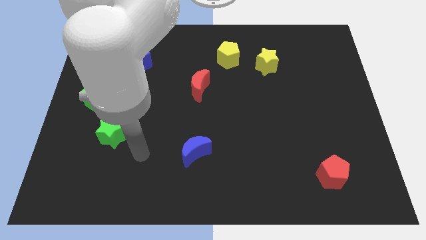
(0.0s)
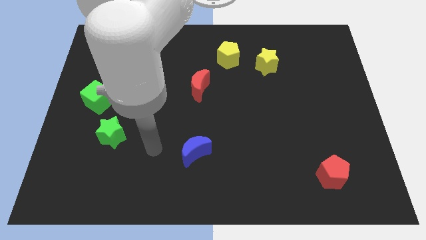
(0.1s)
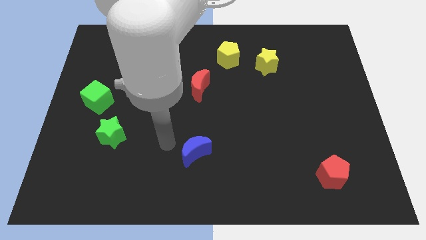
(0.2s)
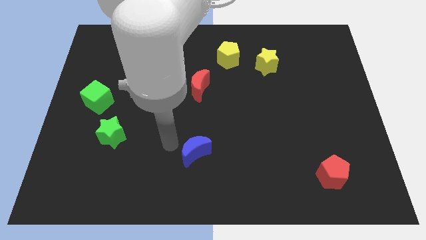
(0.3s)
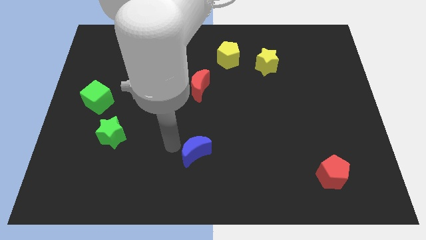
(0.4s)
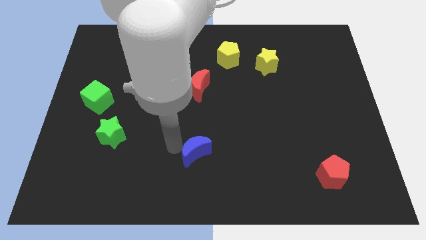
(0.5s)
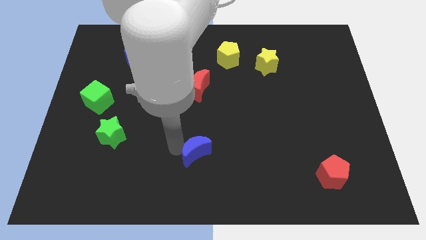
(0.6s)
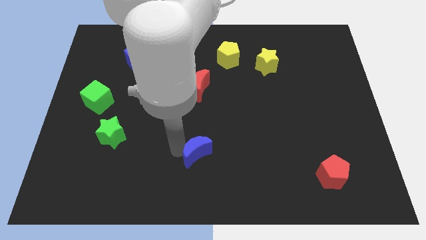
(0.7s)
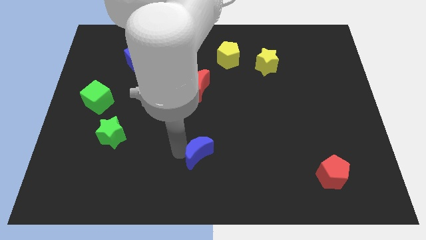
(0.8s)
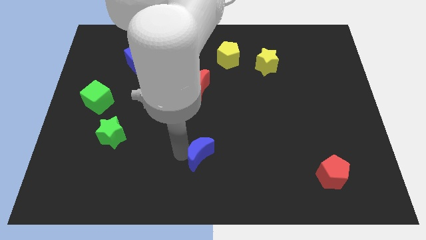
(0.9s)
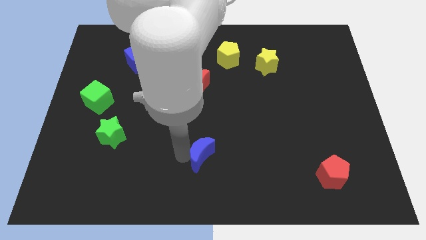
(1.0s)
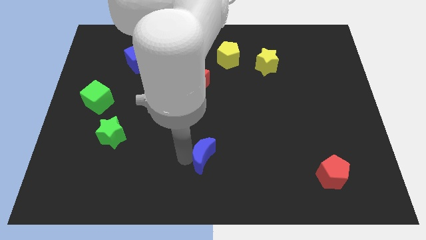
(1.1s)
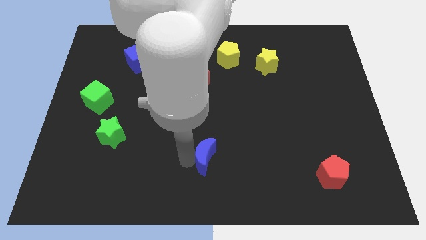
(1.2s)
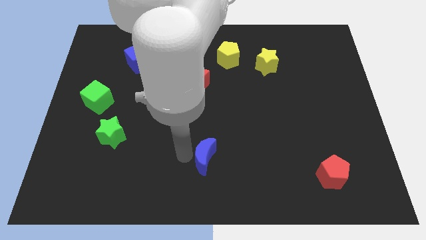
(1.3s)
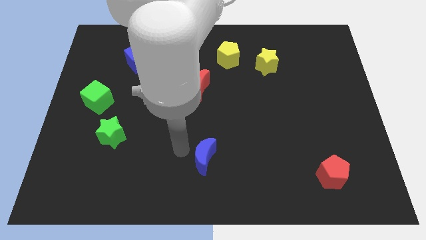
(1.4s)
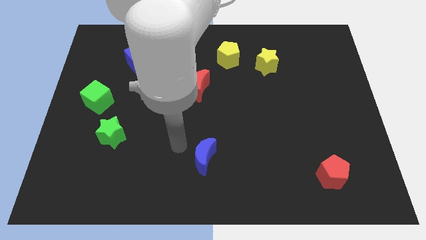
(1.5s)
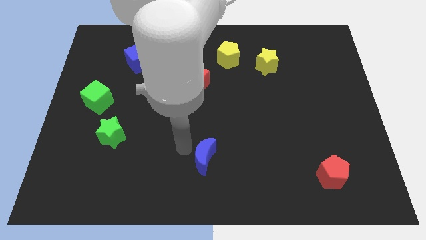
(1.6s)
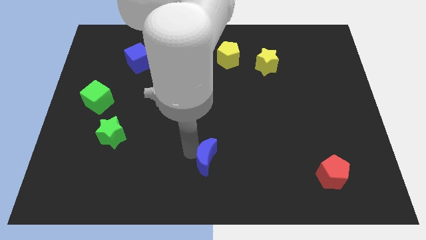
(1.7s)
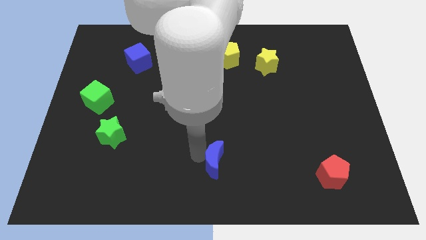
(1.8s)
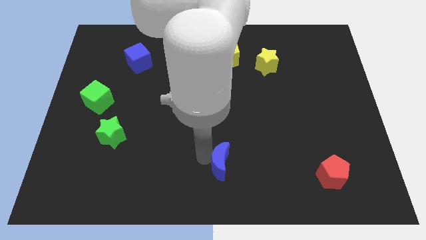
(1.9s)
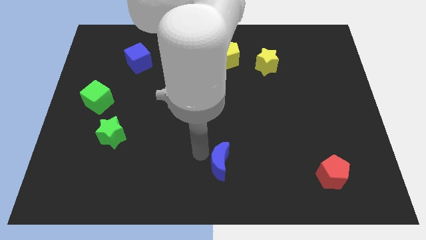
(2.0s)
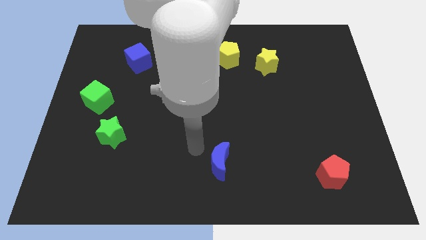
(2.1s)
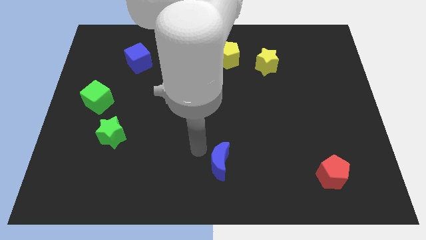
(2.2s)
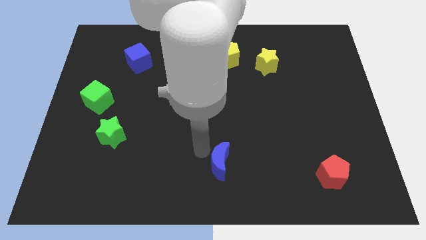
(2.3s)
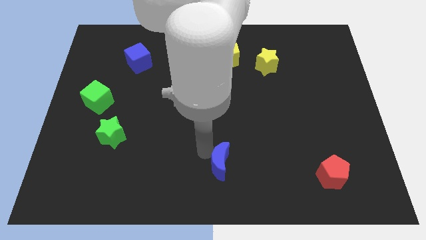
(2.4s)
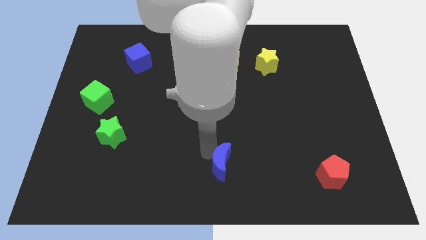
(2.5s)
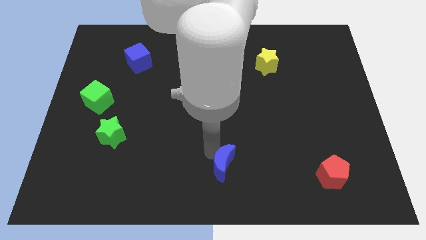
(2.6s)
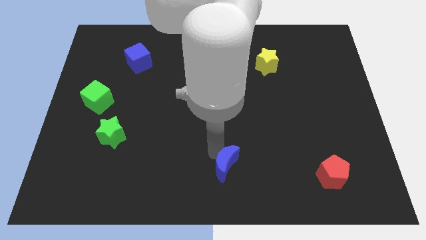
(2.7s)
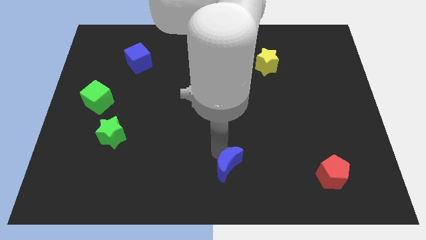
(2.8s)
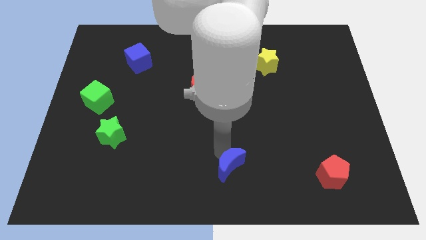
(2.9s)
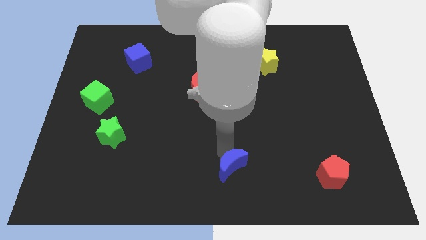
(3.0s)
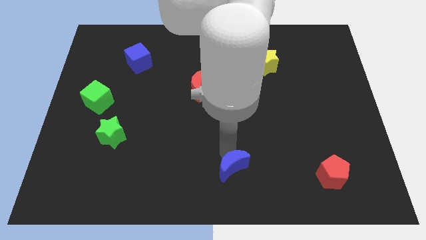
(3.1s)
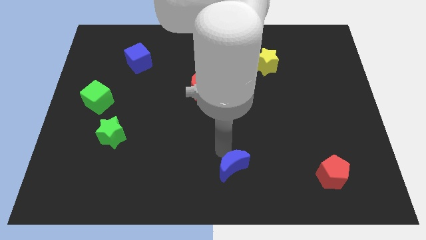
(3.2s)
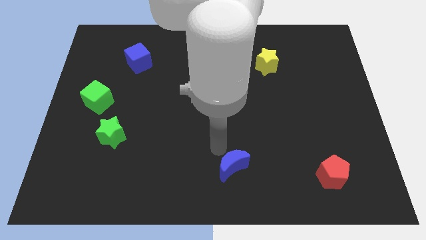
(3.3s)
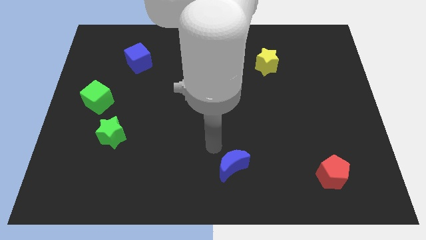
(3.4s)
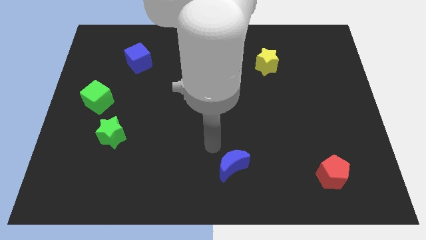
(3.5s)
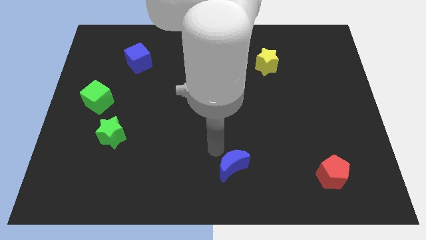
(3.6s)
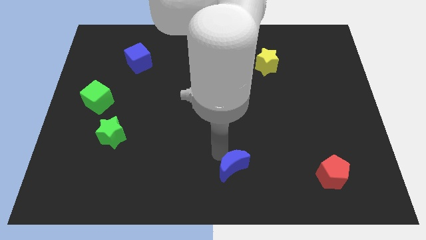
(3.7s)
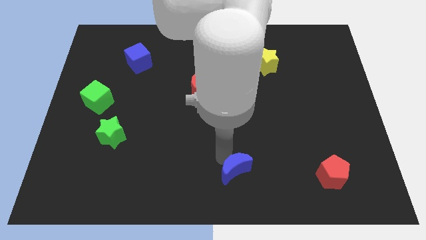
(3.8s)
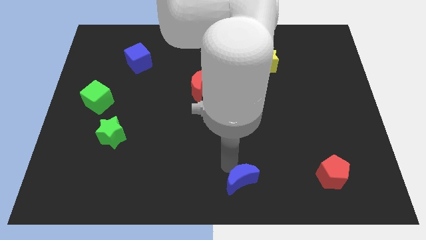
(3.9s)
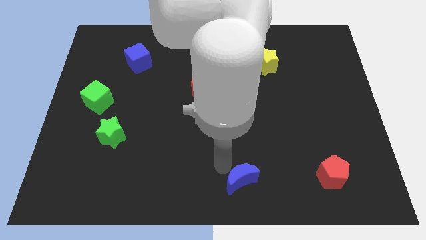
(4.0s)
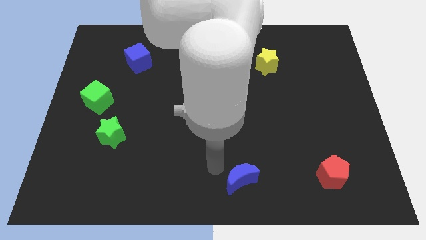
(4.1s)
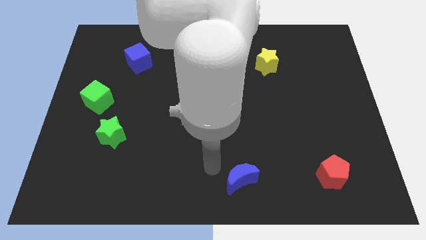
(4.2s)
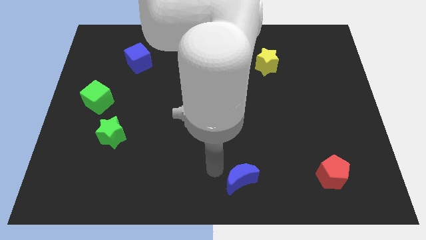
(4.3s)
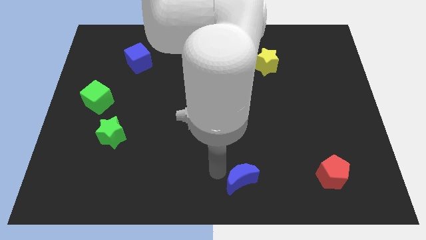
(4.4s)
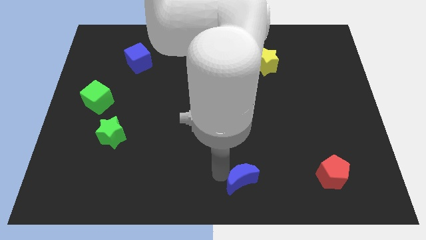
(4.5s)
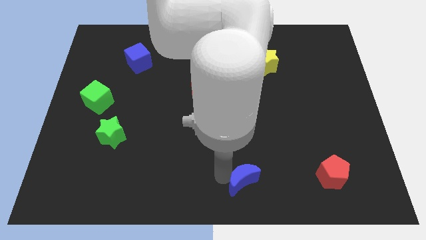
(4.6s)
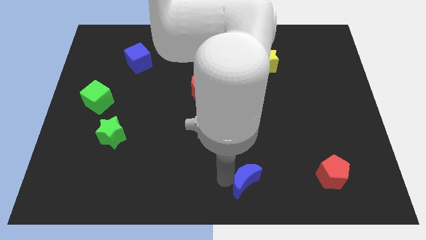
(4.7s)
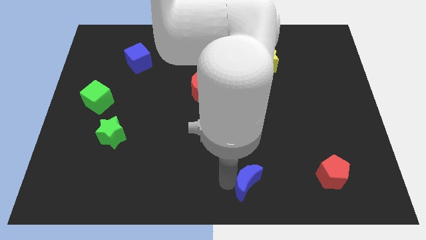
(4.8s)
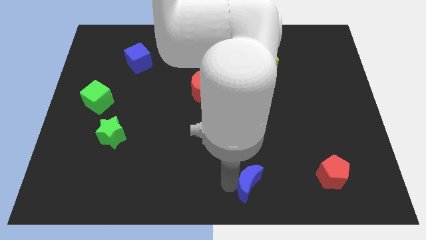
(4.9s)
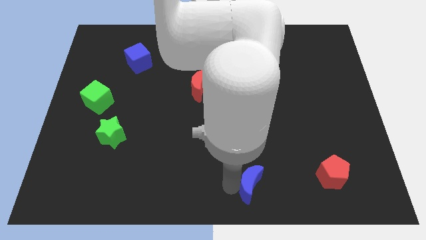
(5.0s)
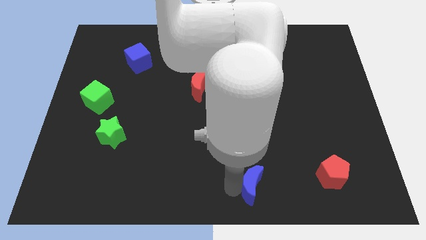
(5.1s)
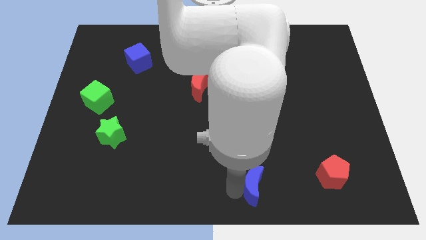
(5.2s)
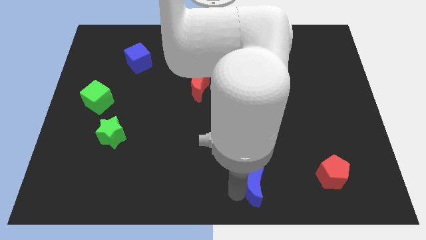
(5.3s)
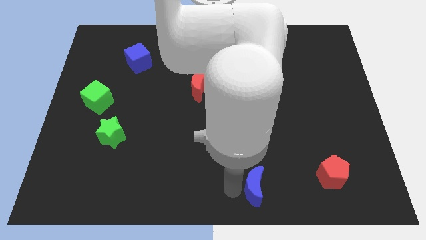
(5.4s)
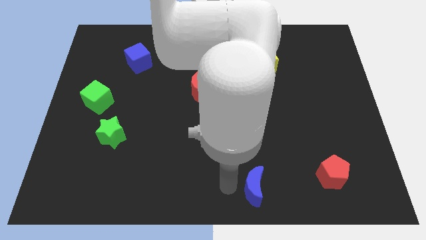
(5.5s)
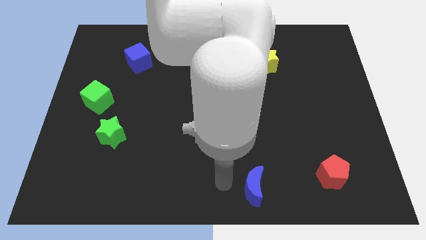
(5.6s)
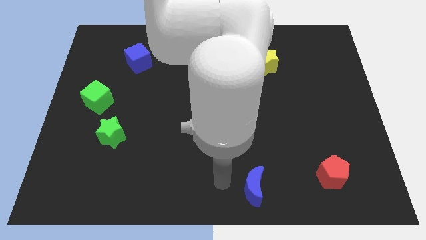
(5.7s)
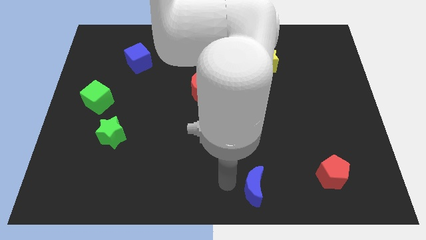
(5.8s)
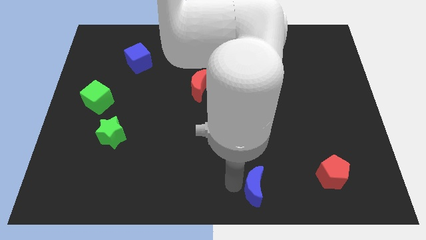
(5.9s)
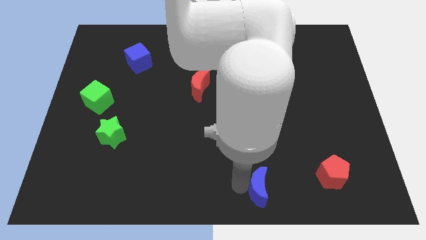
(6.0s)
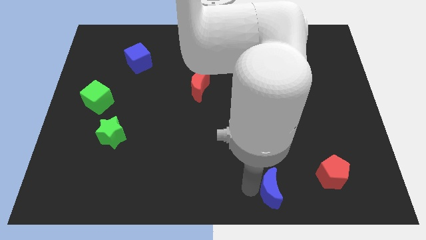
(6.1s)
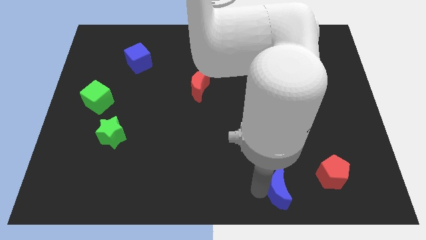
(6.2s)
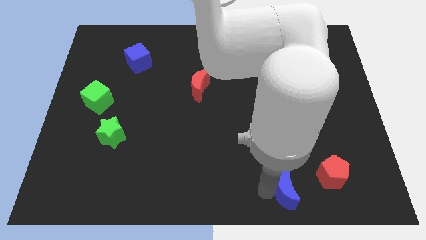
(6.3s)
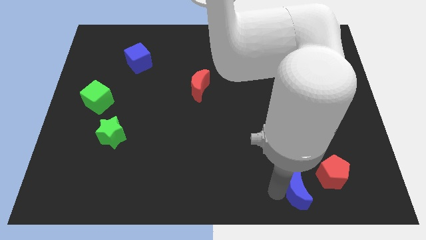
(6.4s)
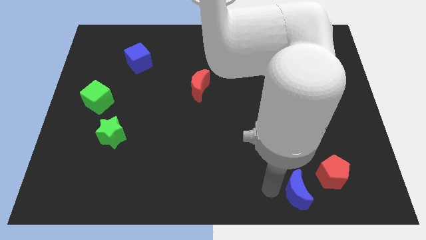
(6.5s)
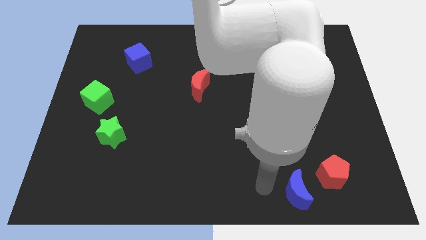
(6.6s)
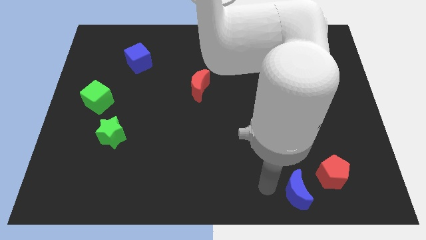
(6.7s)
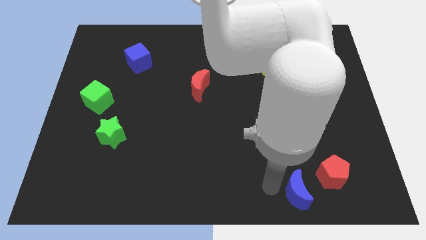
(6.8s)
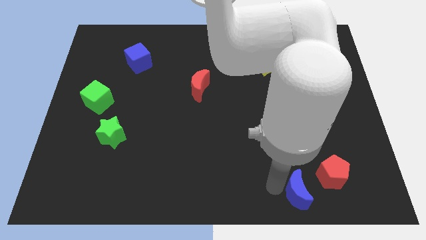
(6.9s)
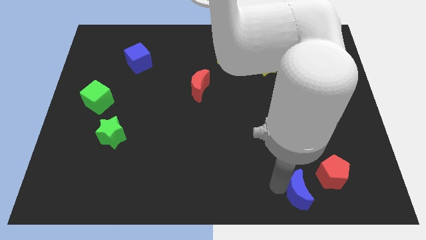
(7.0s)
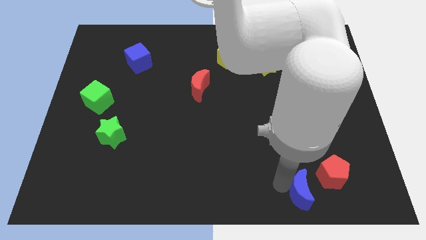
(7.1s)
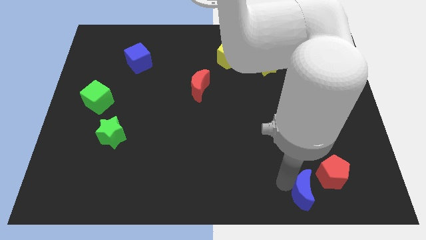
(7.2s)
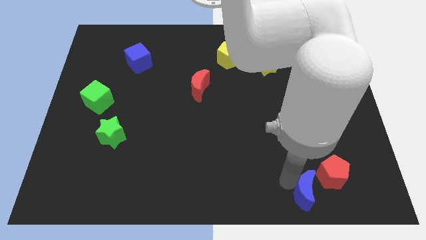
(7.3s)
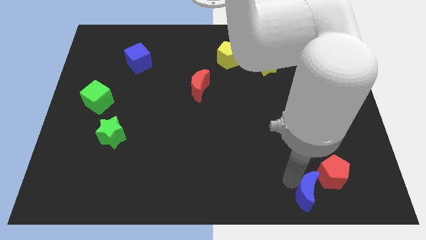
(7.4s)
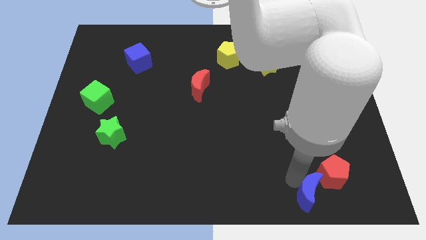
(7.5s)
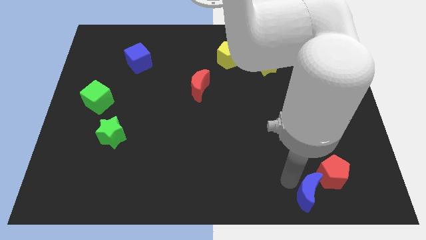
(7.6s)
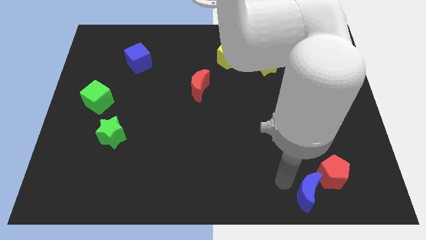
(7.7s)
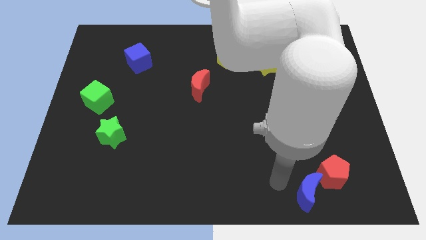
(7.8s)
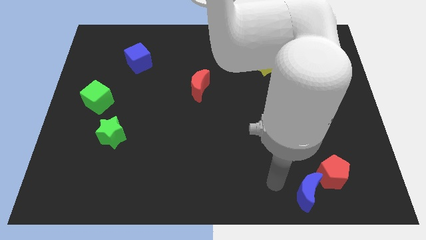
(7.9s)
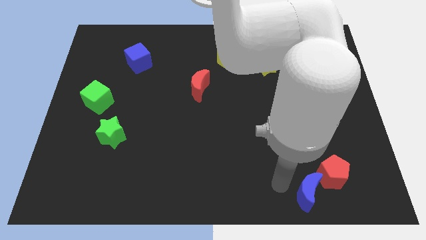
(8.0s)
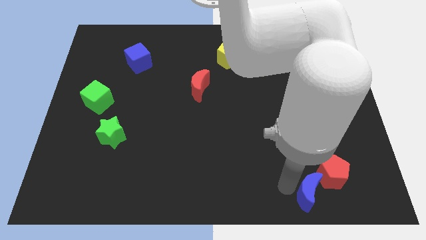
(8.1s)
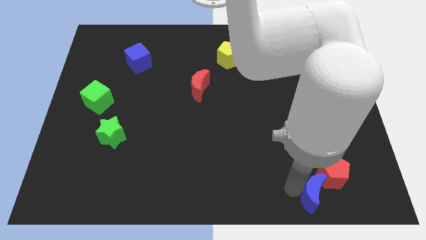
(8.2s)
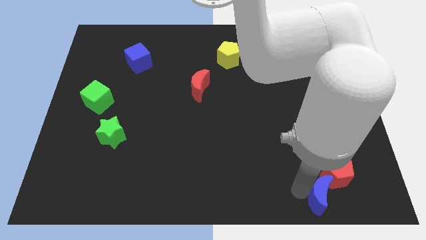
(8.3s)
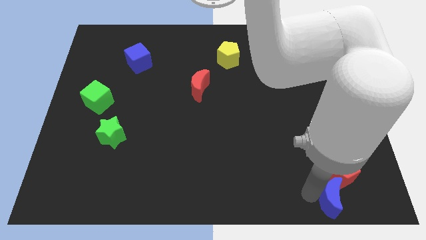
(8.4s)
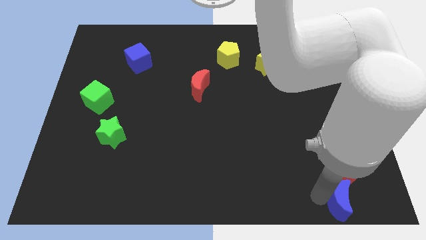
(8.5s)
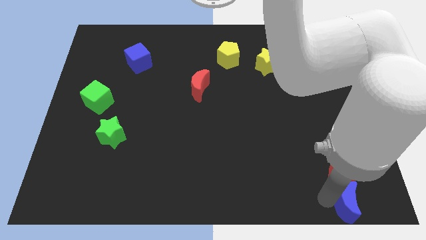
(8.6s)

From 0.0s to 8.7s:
push the blue moon to the lower right corner
